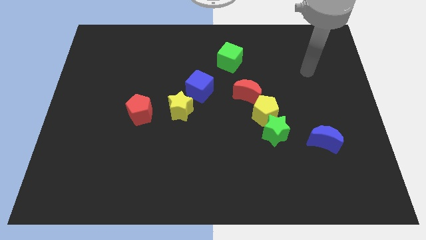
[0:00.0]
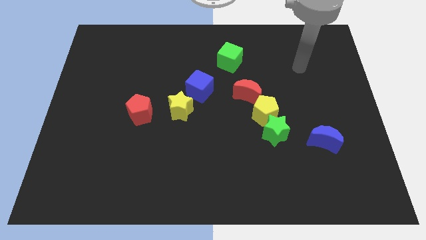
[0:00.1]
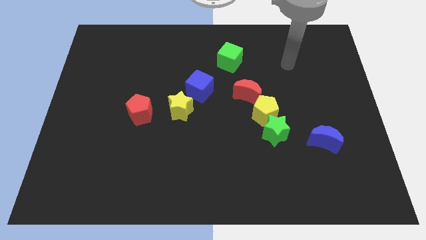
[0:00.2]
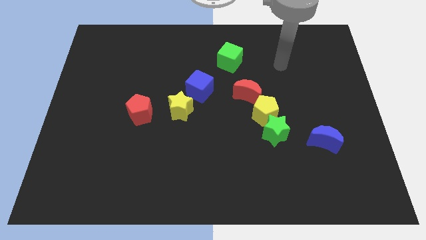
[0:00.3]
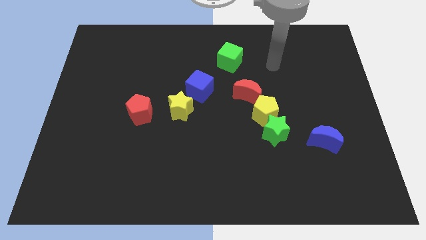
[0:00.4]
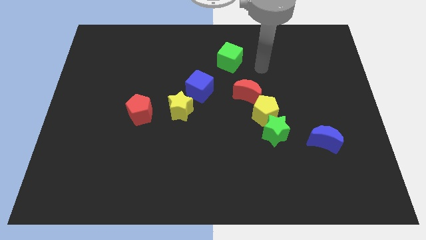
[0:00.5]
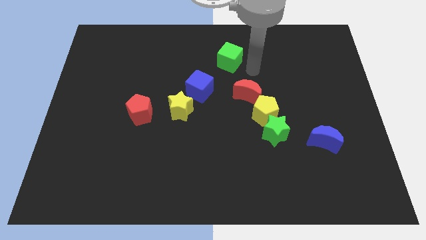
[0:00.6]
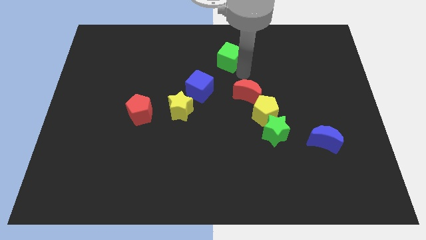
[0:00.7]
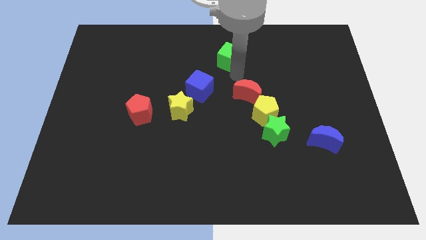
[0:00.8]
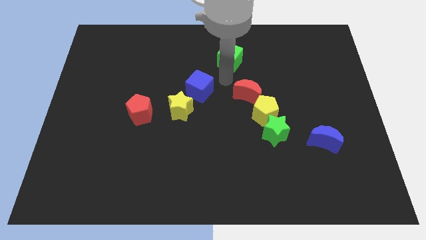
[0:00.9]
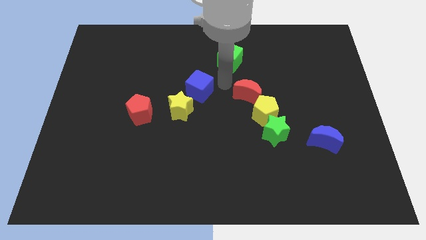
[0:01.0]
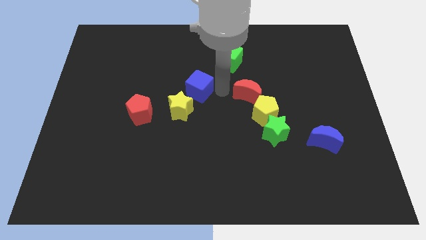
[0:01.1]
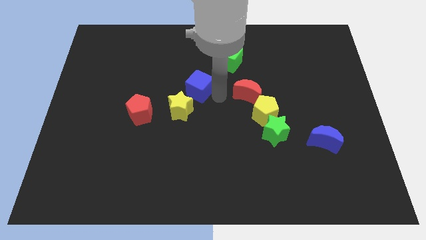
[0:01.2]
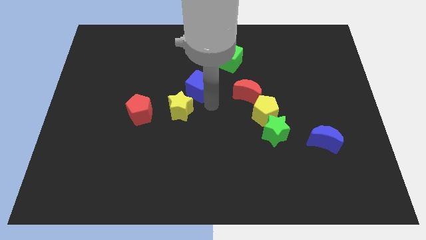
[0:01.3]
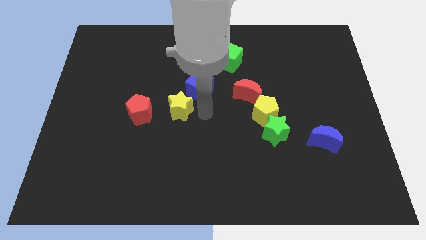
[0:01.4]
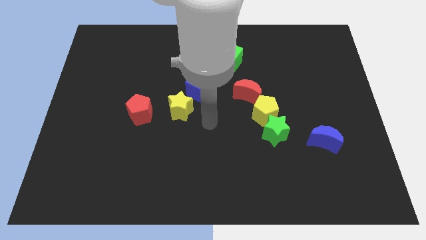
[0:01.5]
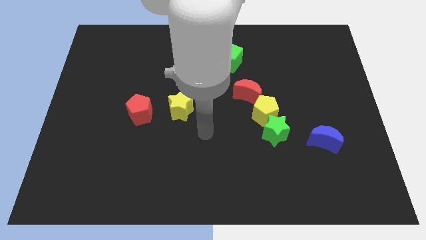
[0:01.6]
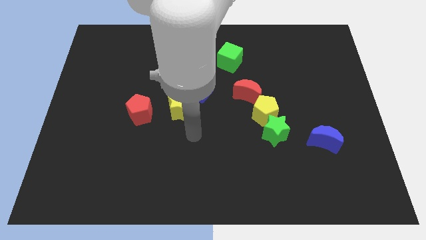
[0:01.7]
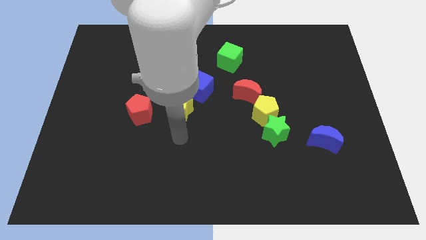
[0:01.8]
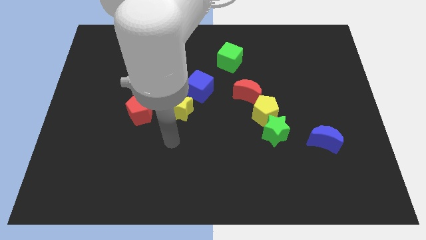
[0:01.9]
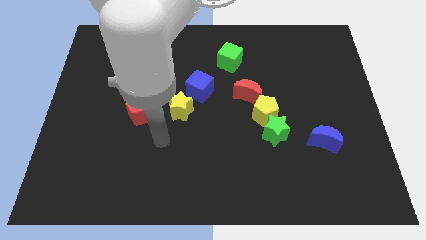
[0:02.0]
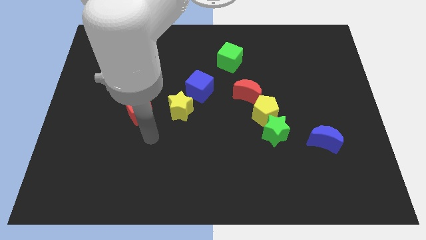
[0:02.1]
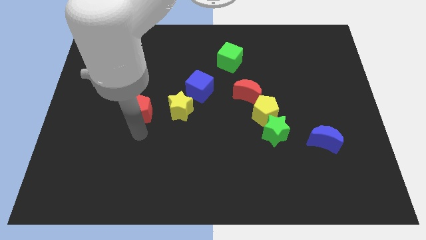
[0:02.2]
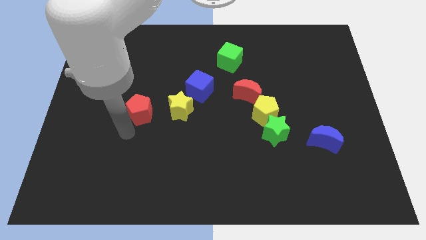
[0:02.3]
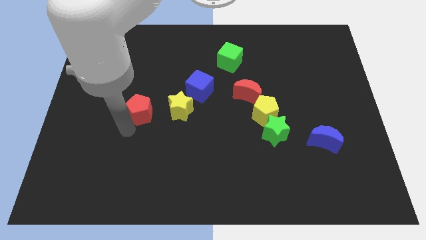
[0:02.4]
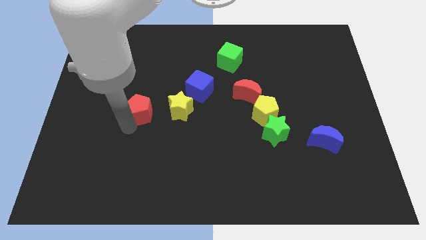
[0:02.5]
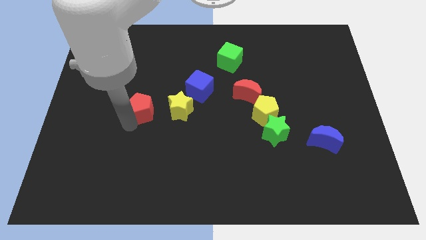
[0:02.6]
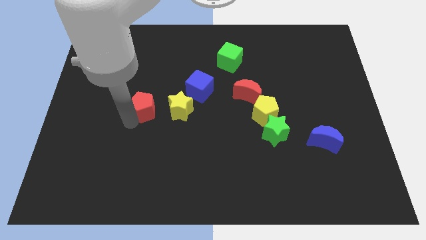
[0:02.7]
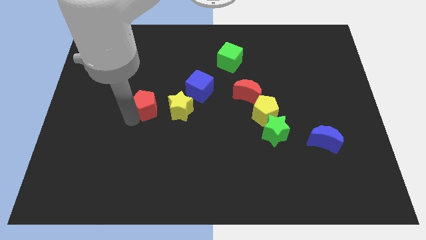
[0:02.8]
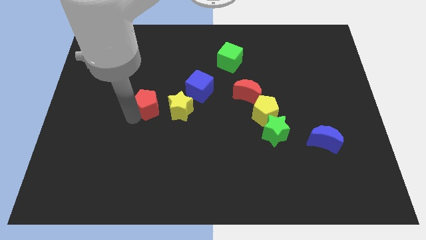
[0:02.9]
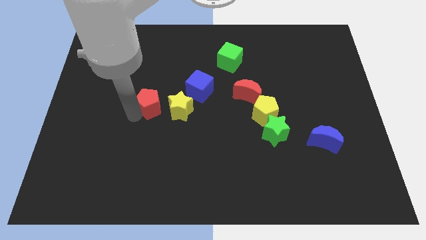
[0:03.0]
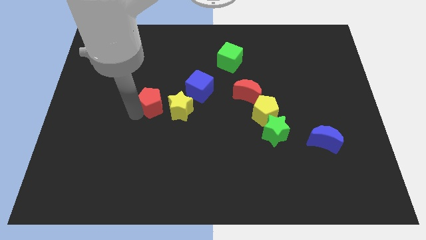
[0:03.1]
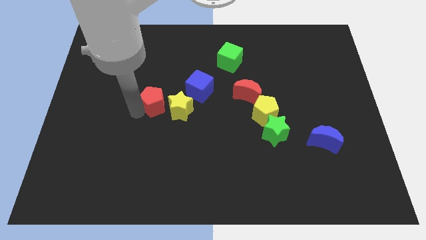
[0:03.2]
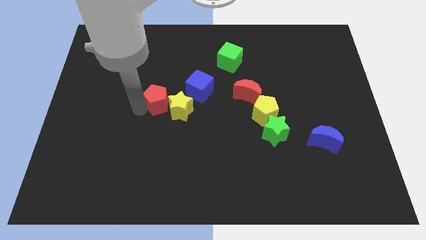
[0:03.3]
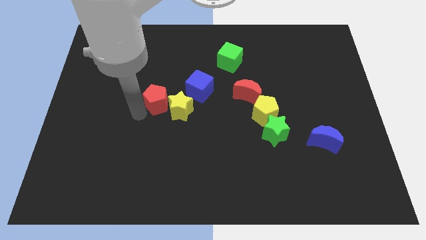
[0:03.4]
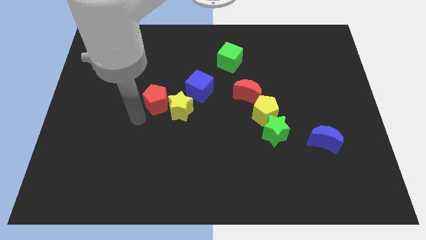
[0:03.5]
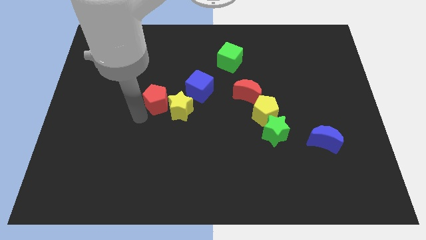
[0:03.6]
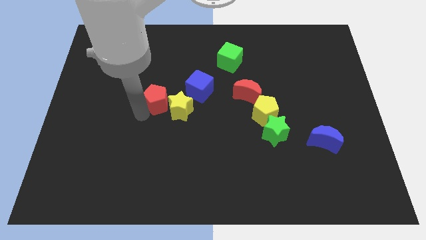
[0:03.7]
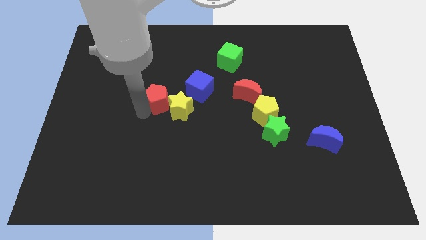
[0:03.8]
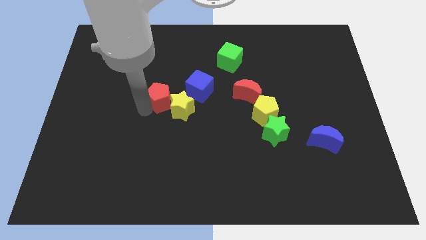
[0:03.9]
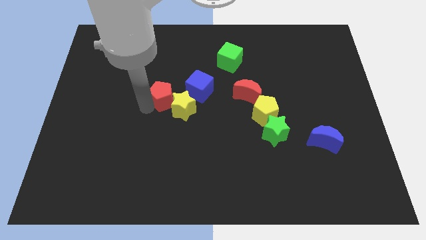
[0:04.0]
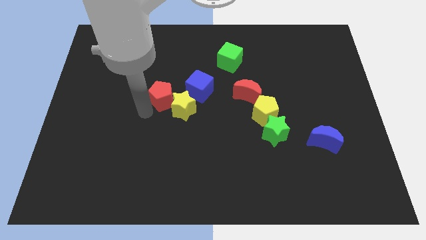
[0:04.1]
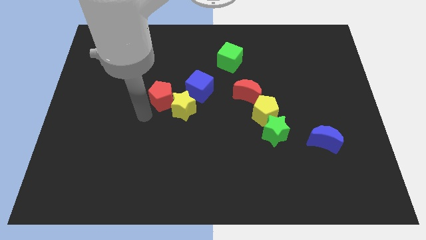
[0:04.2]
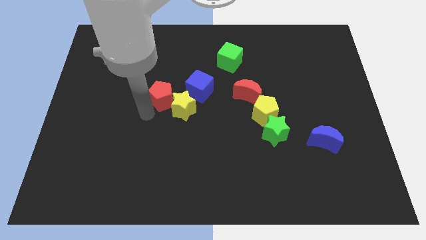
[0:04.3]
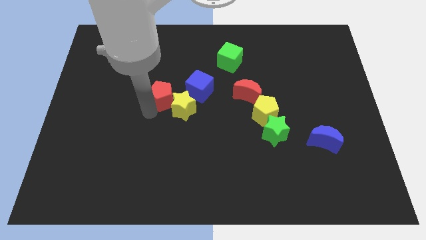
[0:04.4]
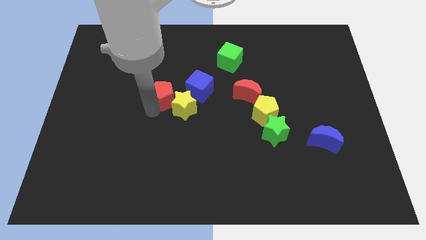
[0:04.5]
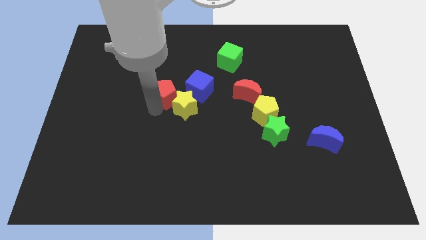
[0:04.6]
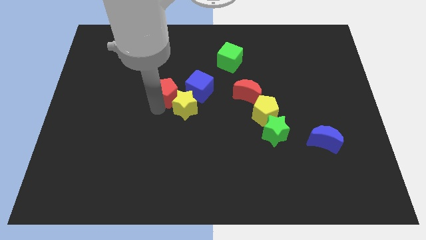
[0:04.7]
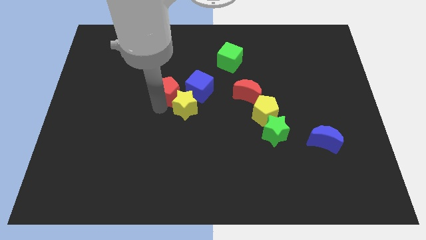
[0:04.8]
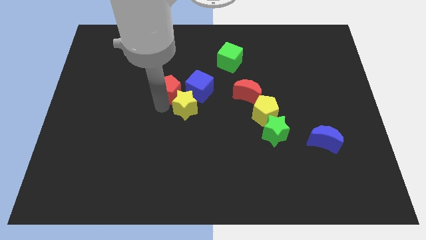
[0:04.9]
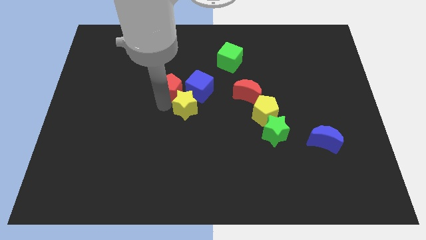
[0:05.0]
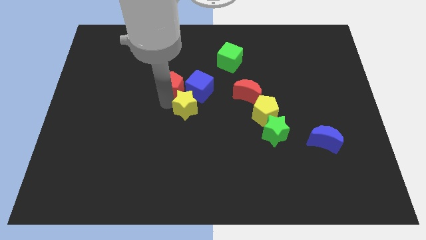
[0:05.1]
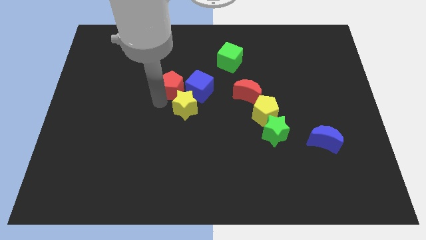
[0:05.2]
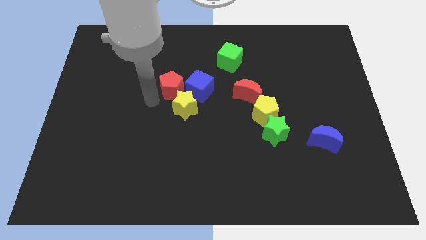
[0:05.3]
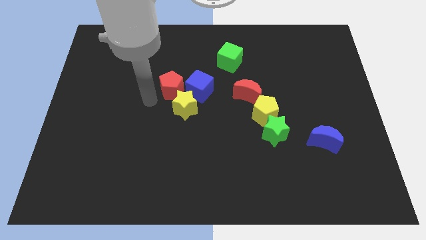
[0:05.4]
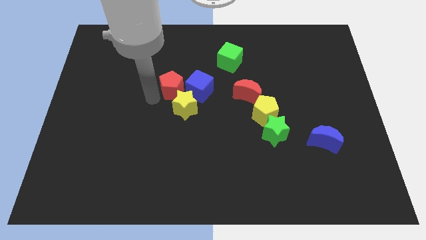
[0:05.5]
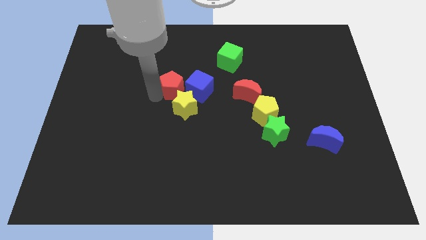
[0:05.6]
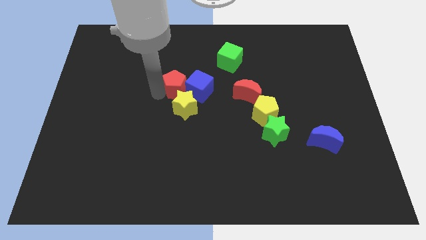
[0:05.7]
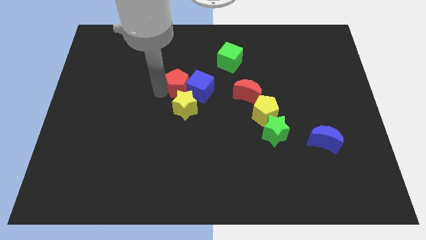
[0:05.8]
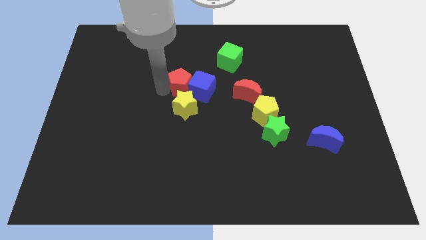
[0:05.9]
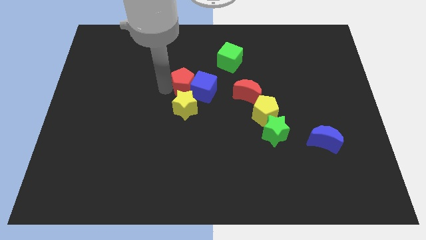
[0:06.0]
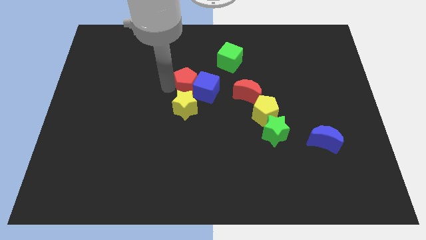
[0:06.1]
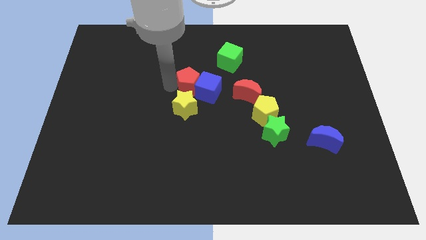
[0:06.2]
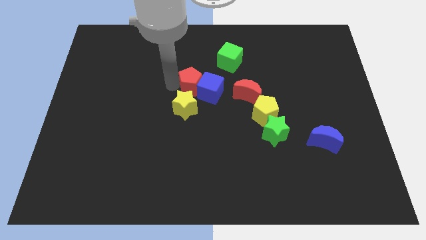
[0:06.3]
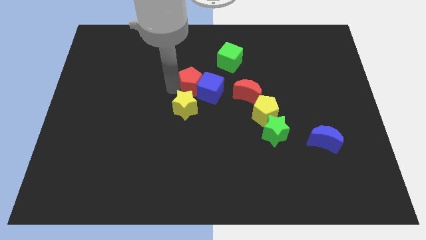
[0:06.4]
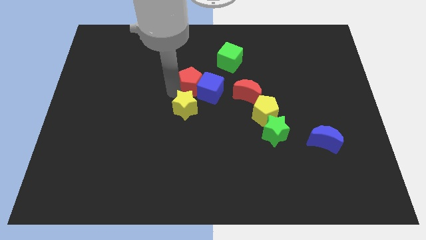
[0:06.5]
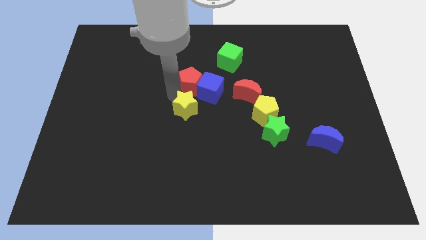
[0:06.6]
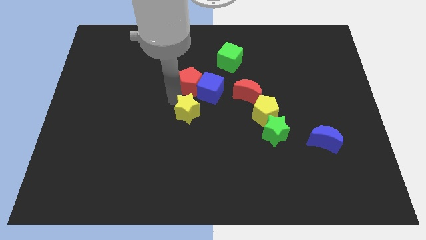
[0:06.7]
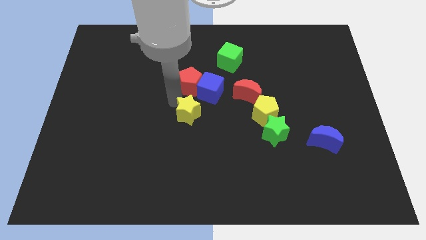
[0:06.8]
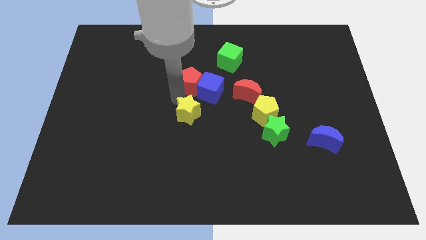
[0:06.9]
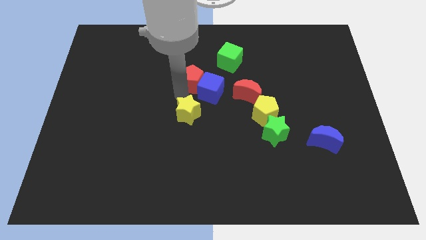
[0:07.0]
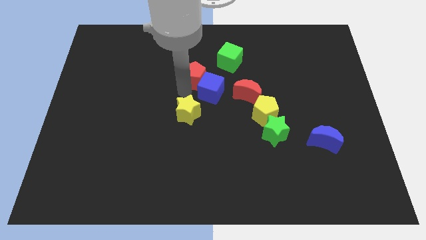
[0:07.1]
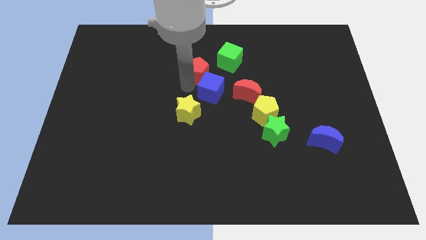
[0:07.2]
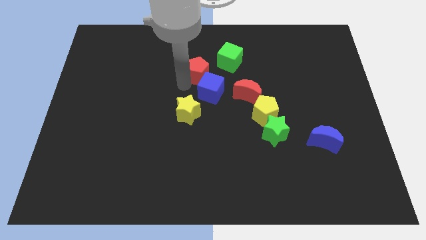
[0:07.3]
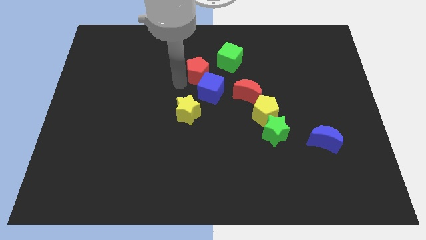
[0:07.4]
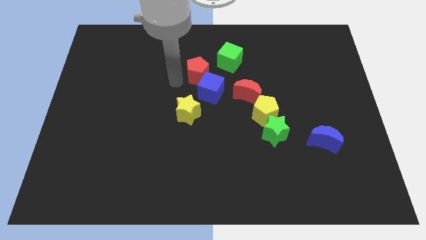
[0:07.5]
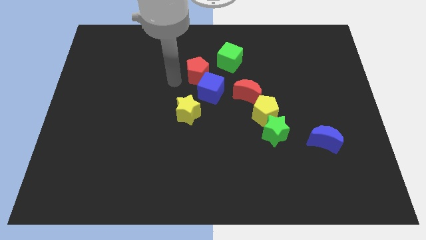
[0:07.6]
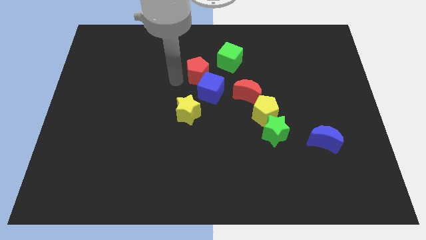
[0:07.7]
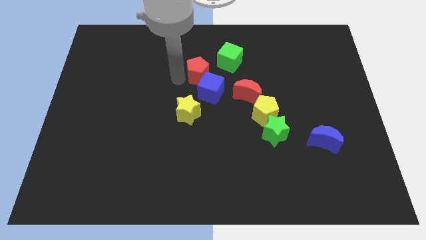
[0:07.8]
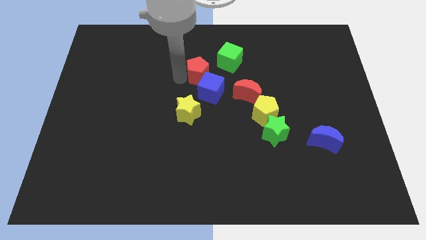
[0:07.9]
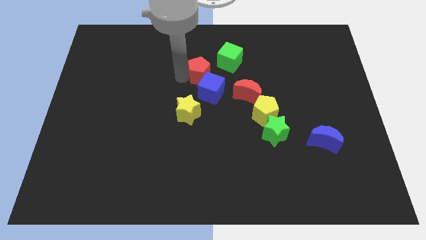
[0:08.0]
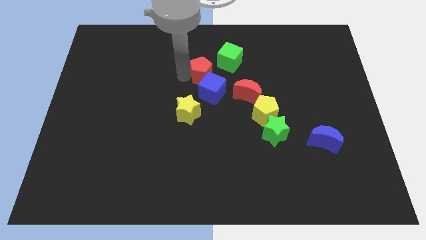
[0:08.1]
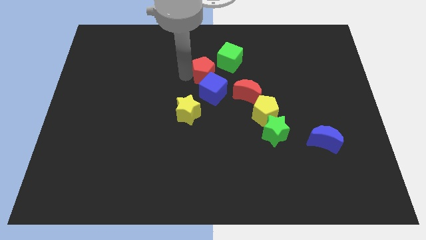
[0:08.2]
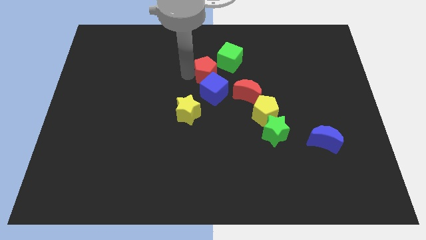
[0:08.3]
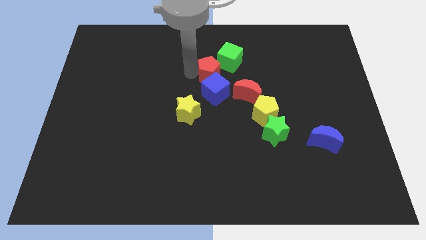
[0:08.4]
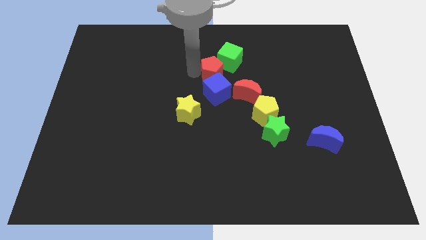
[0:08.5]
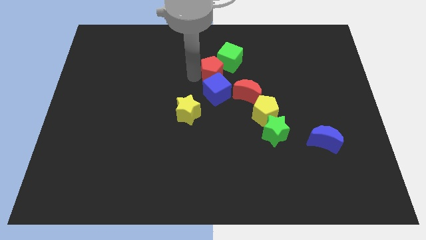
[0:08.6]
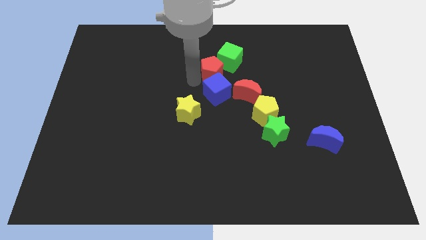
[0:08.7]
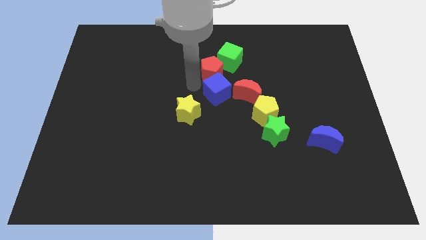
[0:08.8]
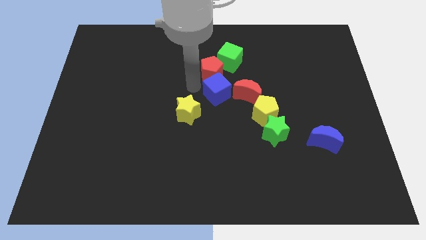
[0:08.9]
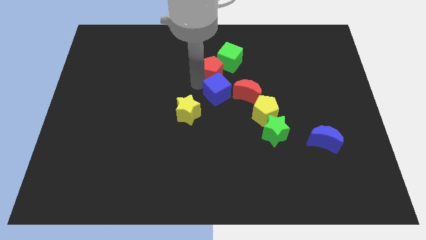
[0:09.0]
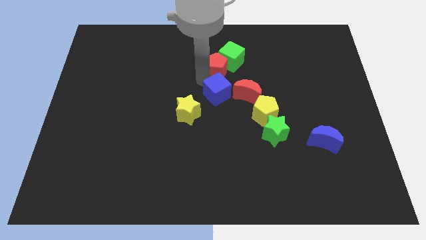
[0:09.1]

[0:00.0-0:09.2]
move the red pentagon to the green cube
